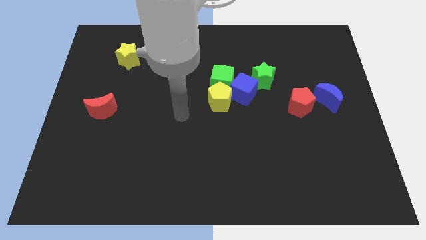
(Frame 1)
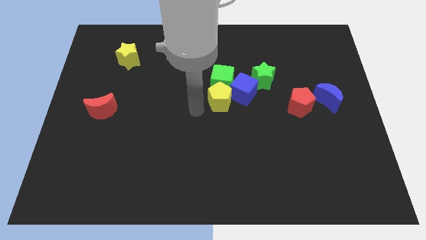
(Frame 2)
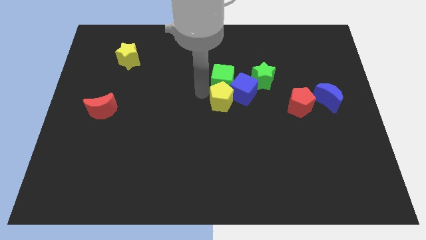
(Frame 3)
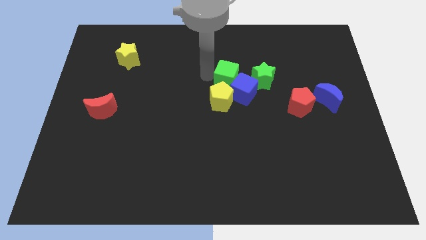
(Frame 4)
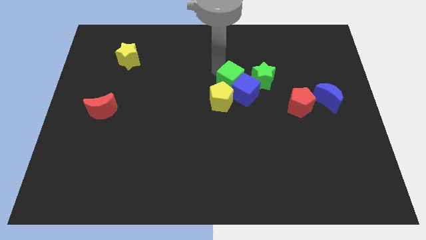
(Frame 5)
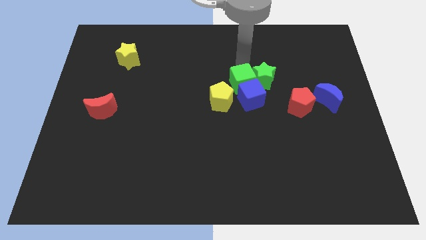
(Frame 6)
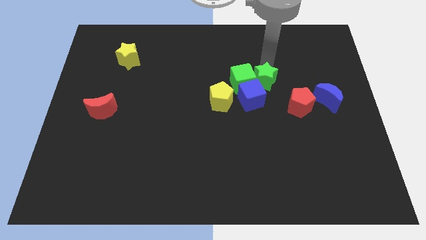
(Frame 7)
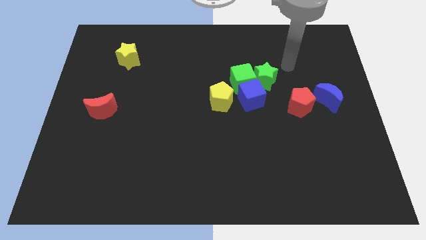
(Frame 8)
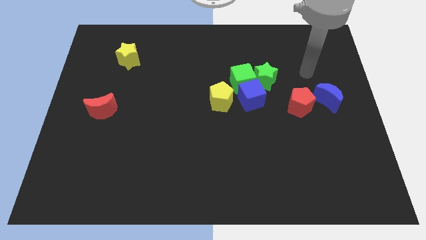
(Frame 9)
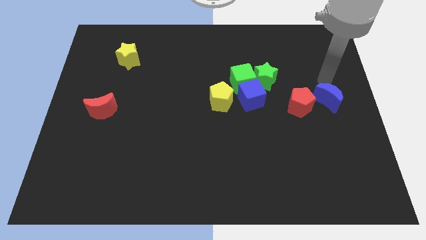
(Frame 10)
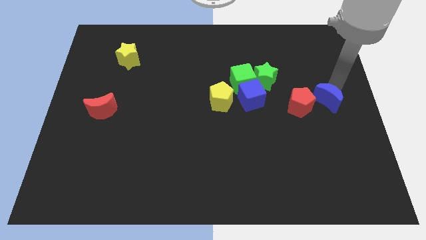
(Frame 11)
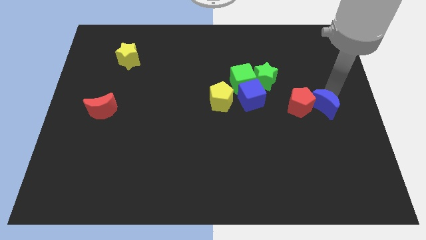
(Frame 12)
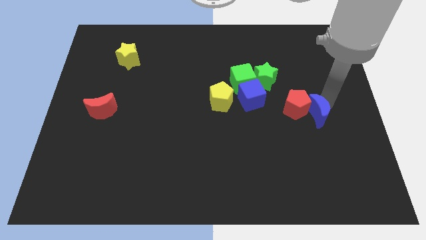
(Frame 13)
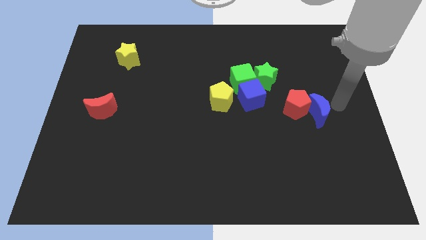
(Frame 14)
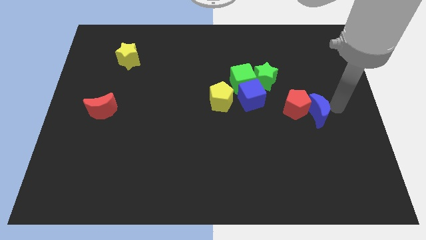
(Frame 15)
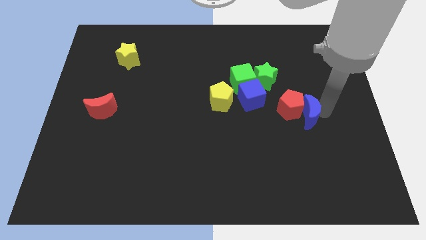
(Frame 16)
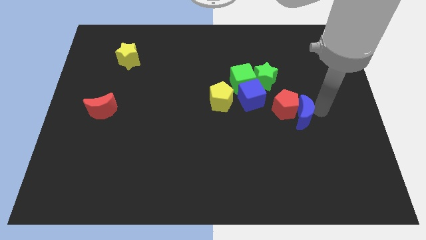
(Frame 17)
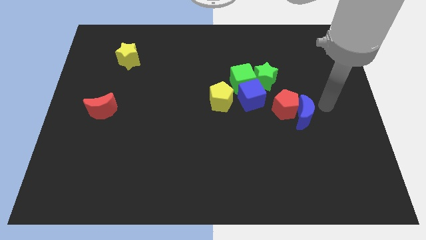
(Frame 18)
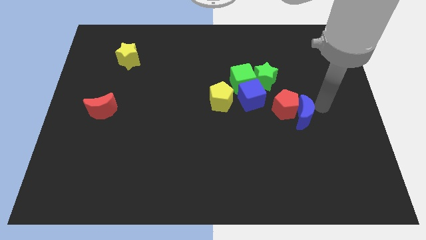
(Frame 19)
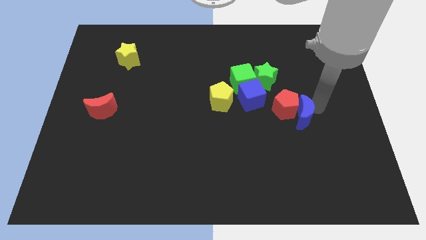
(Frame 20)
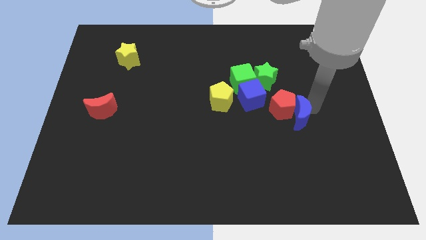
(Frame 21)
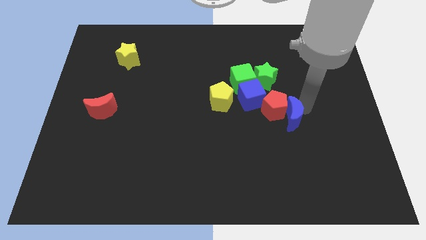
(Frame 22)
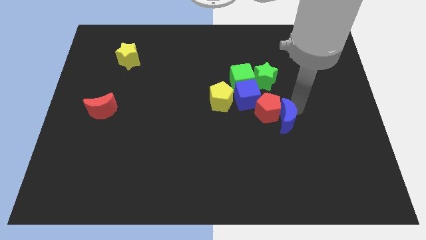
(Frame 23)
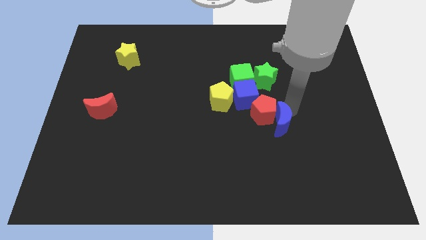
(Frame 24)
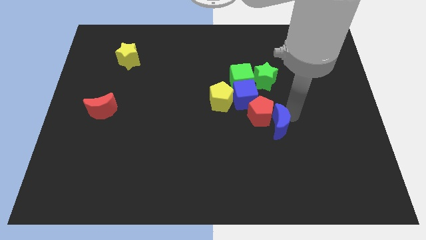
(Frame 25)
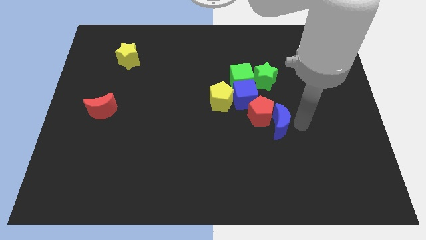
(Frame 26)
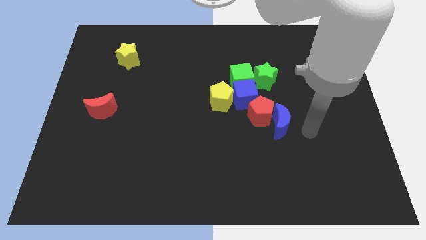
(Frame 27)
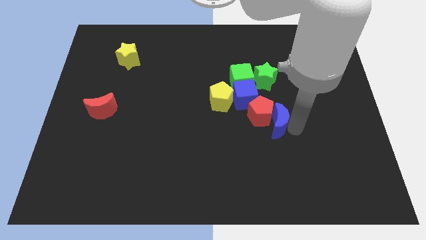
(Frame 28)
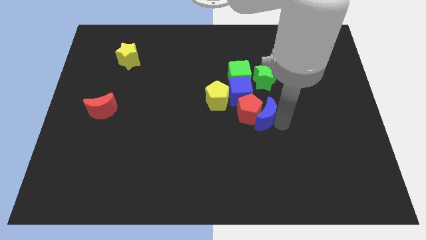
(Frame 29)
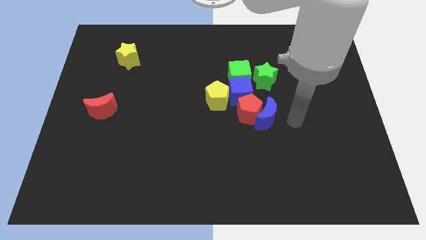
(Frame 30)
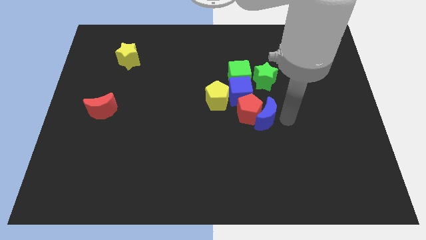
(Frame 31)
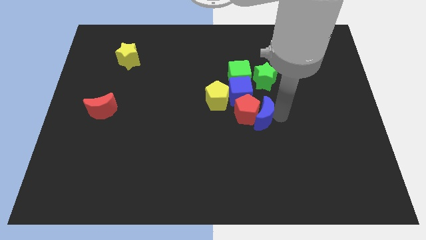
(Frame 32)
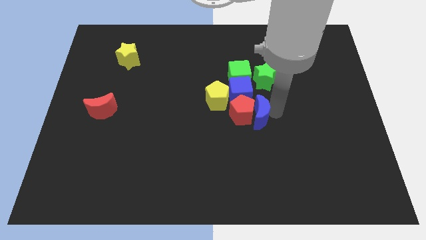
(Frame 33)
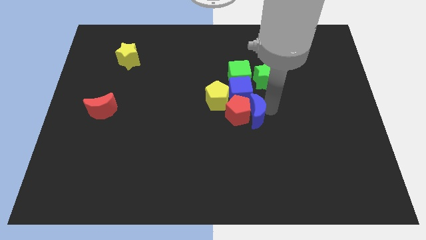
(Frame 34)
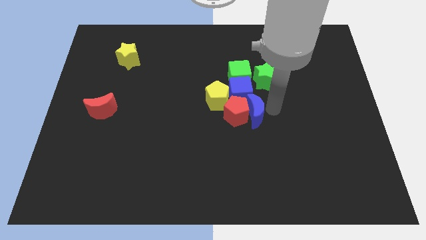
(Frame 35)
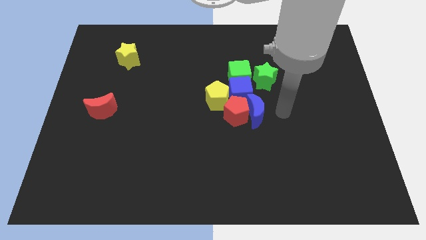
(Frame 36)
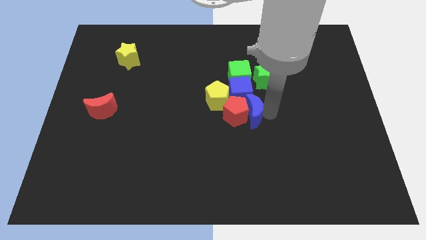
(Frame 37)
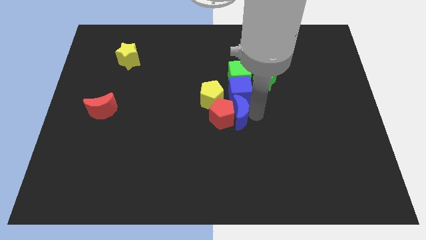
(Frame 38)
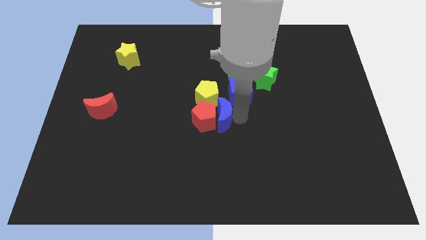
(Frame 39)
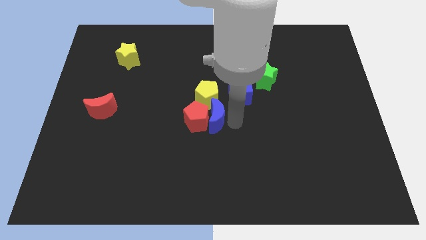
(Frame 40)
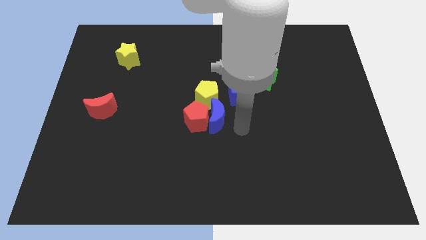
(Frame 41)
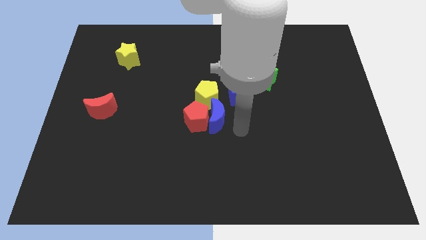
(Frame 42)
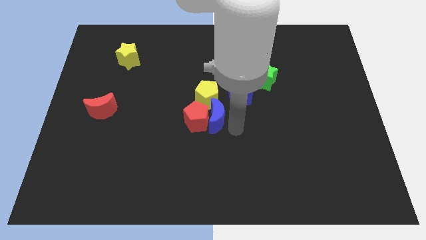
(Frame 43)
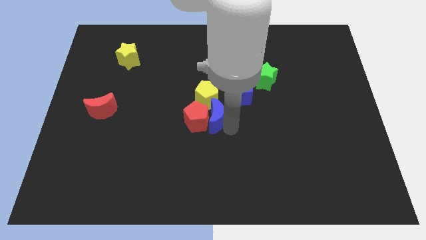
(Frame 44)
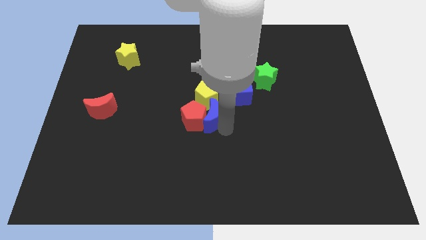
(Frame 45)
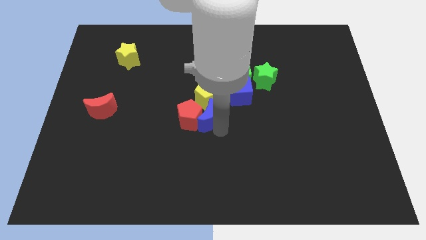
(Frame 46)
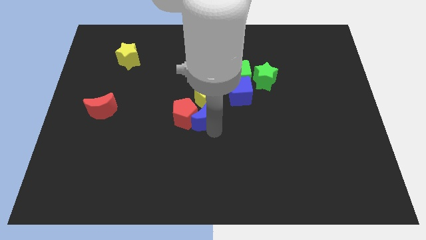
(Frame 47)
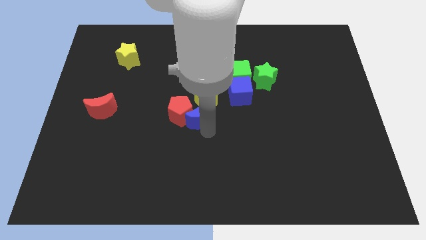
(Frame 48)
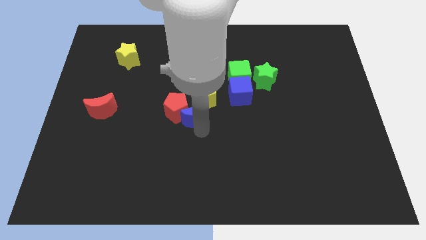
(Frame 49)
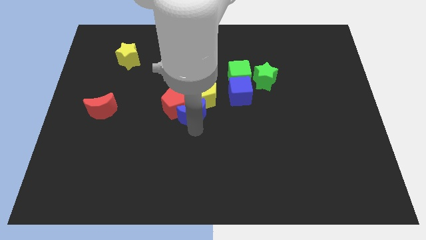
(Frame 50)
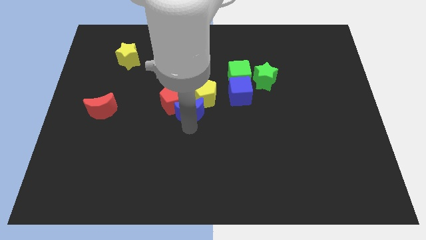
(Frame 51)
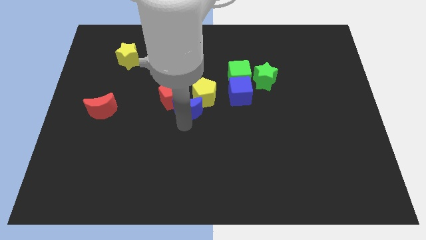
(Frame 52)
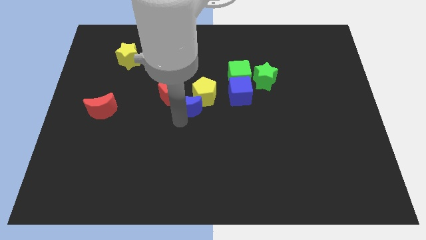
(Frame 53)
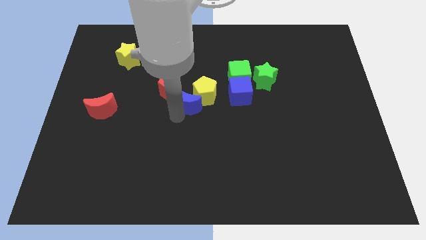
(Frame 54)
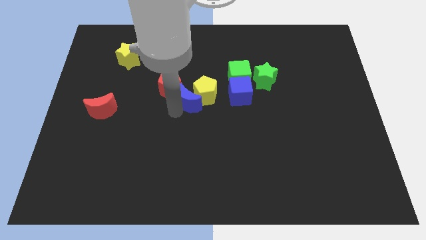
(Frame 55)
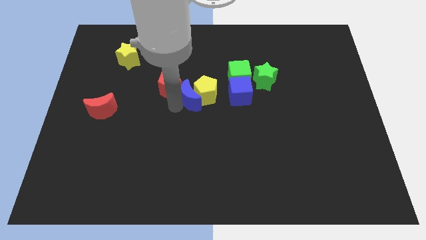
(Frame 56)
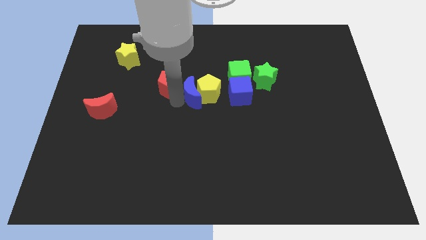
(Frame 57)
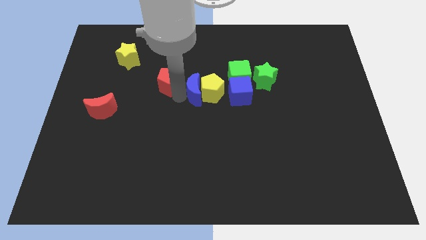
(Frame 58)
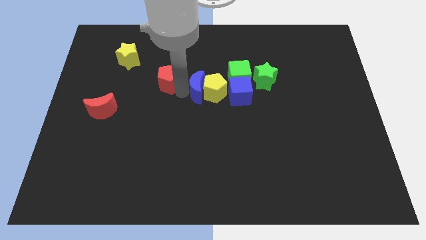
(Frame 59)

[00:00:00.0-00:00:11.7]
put the blue moon to the bottom left side of the green cube
